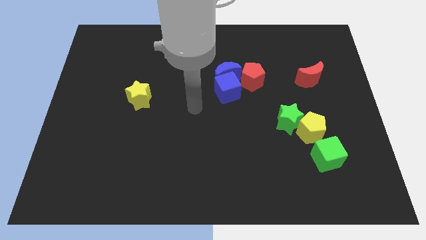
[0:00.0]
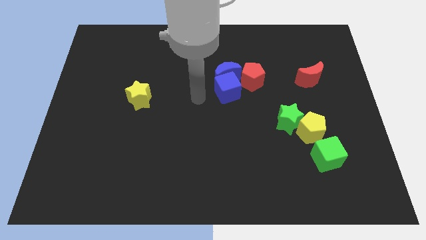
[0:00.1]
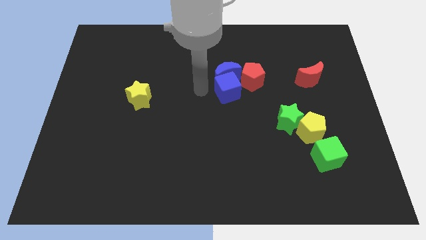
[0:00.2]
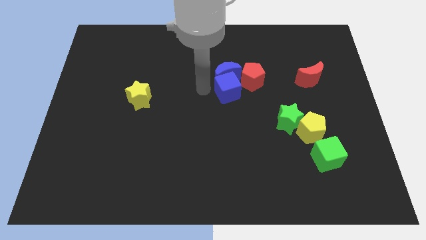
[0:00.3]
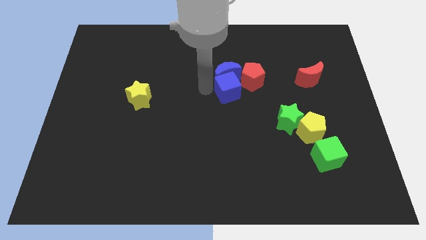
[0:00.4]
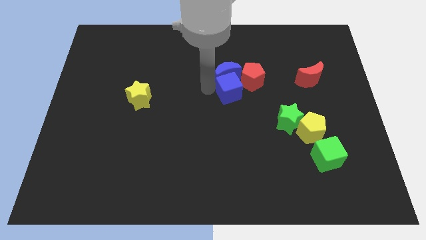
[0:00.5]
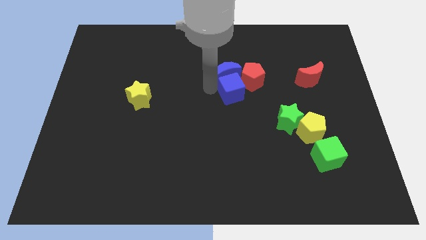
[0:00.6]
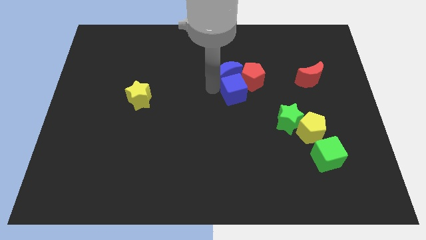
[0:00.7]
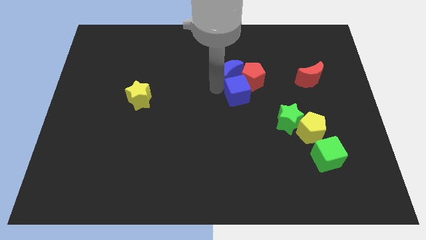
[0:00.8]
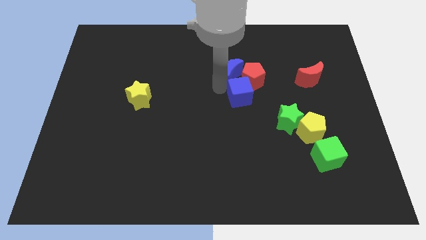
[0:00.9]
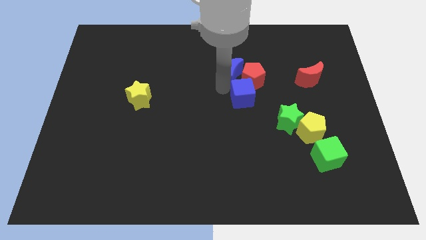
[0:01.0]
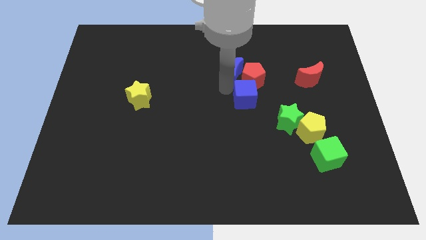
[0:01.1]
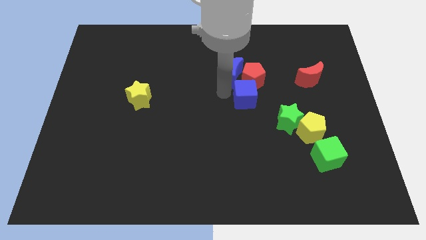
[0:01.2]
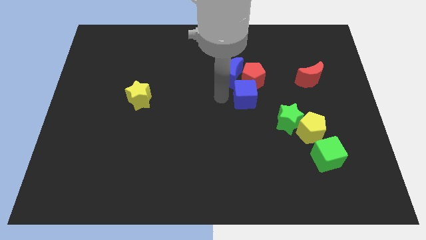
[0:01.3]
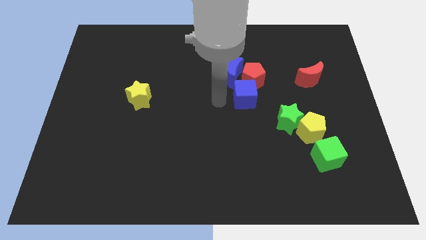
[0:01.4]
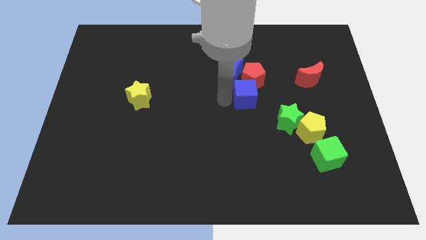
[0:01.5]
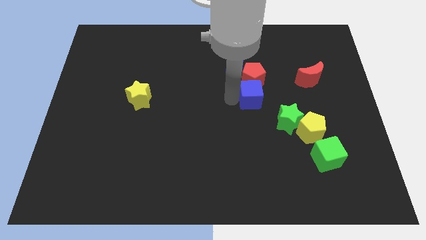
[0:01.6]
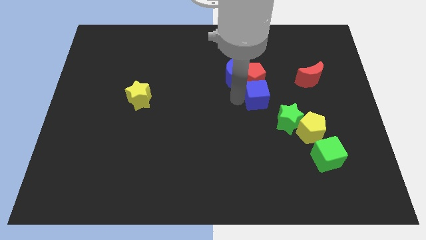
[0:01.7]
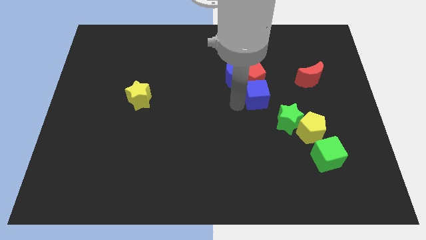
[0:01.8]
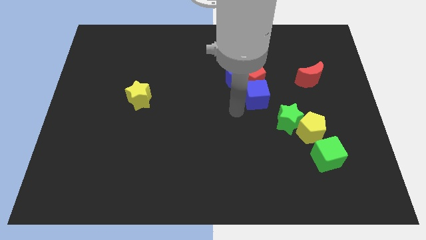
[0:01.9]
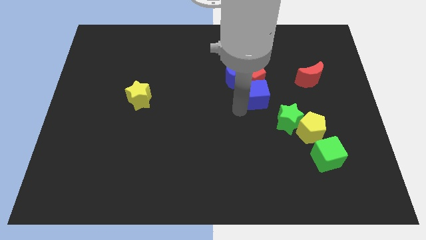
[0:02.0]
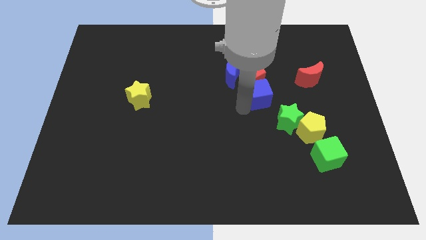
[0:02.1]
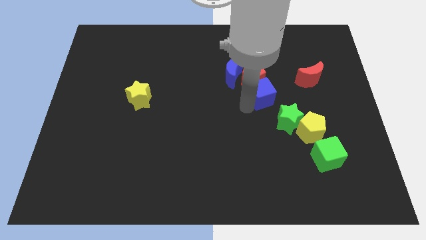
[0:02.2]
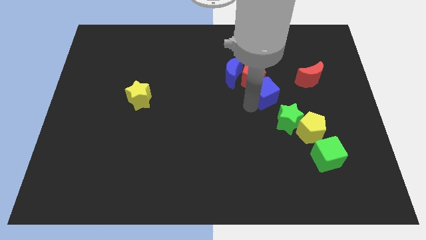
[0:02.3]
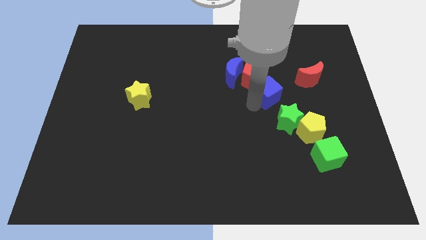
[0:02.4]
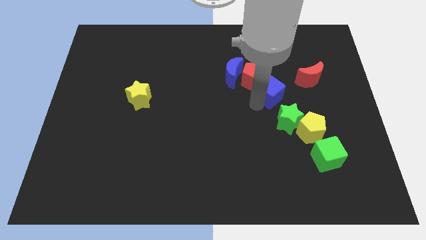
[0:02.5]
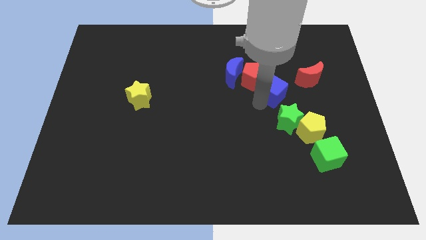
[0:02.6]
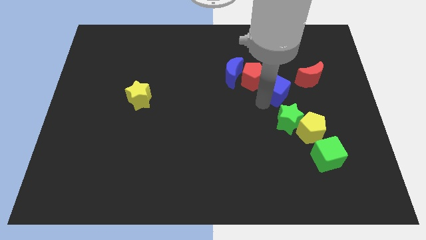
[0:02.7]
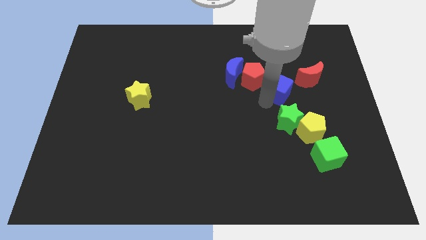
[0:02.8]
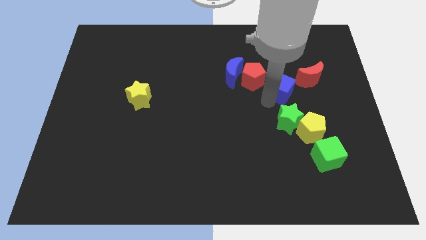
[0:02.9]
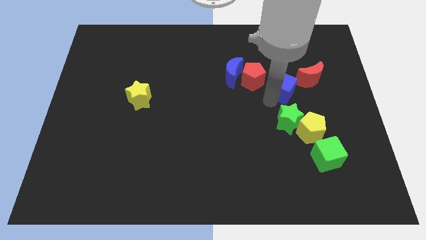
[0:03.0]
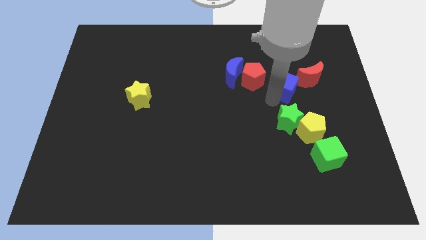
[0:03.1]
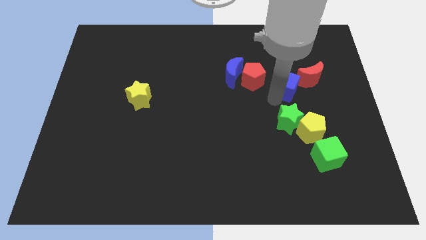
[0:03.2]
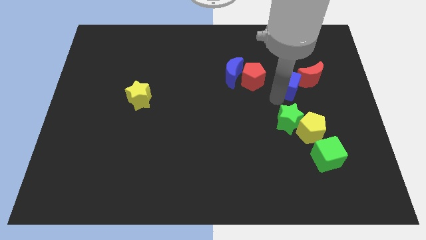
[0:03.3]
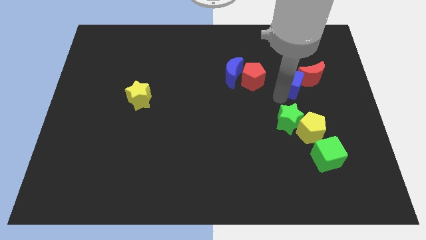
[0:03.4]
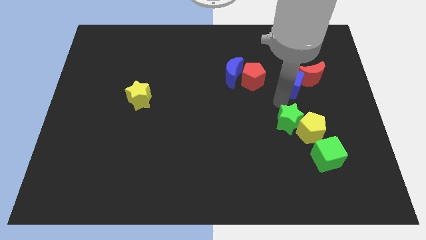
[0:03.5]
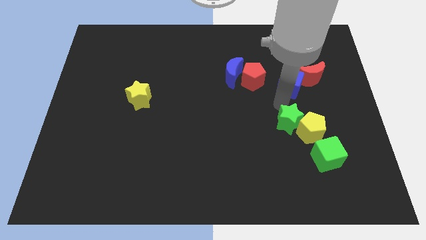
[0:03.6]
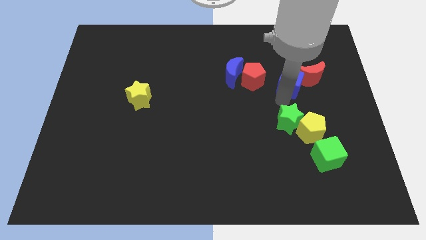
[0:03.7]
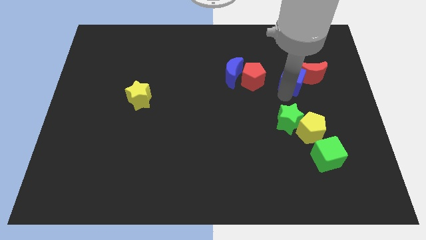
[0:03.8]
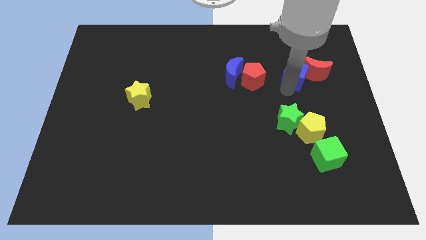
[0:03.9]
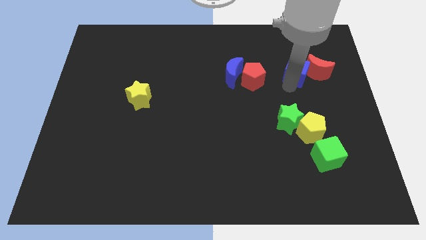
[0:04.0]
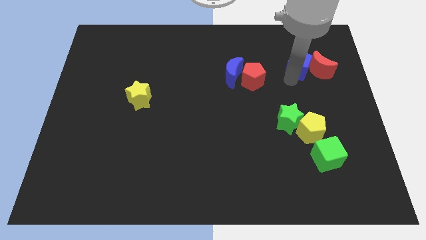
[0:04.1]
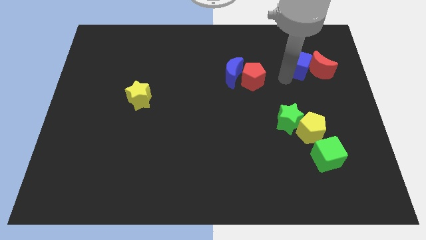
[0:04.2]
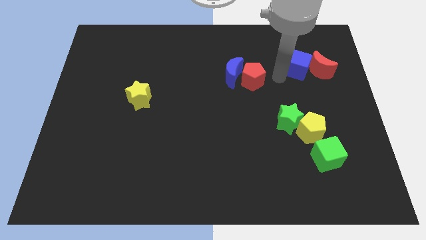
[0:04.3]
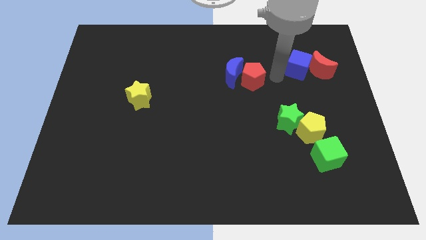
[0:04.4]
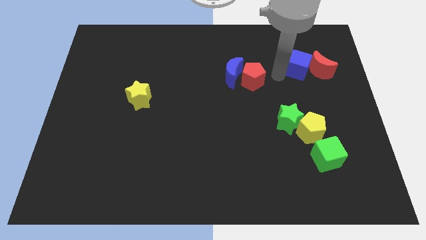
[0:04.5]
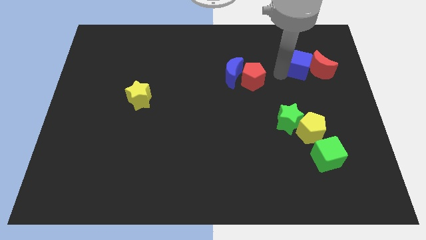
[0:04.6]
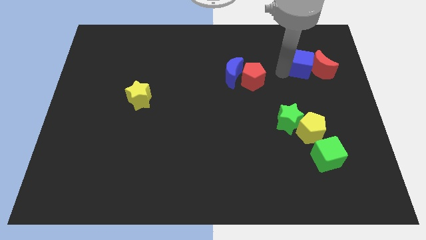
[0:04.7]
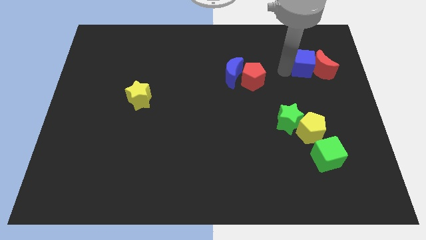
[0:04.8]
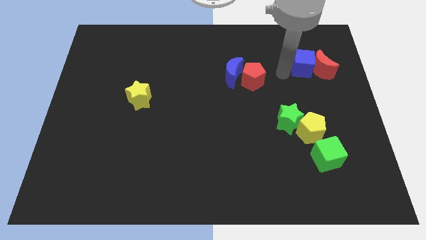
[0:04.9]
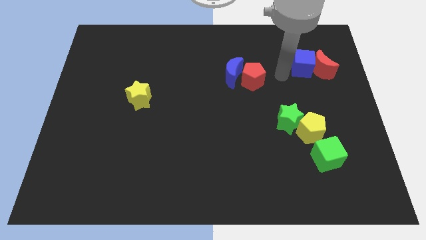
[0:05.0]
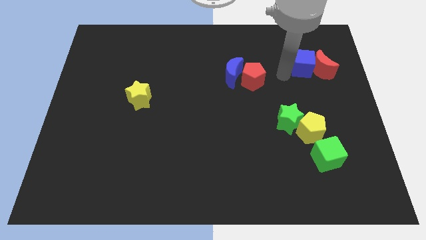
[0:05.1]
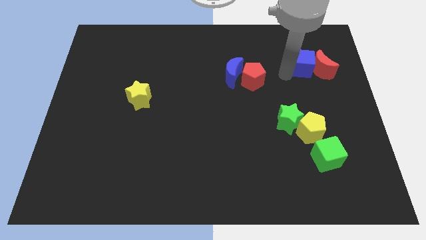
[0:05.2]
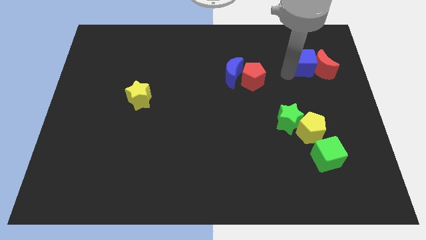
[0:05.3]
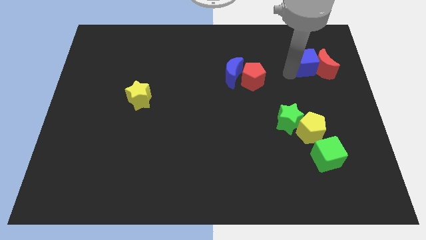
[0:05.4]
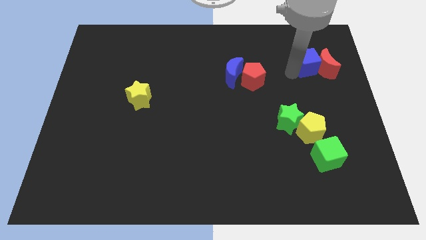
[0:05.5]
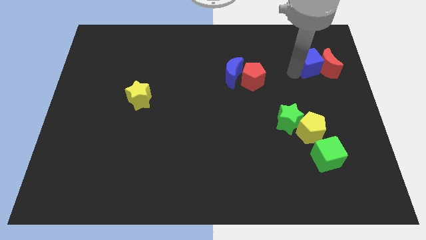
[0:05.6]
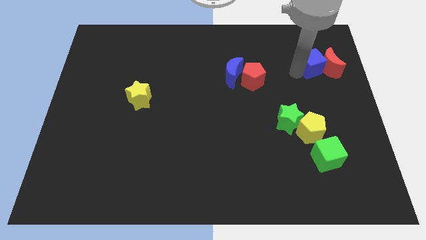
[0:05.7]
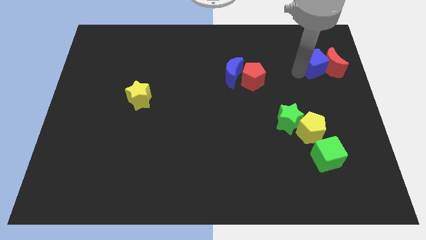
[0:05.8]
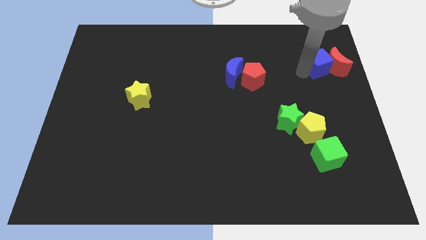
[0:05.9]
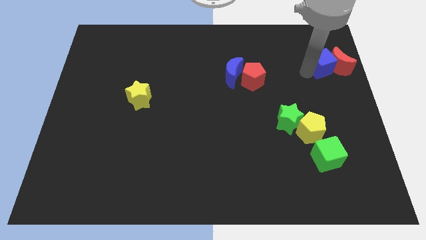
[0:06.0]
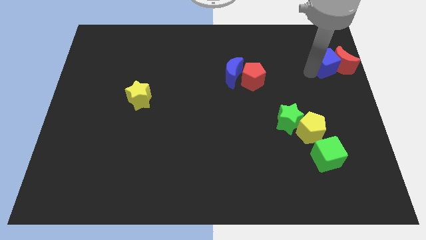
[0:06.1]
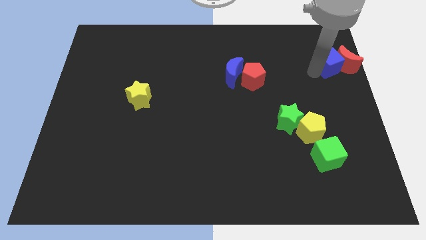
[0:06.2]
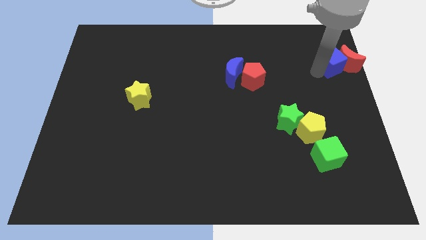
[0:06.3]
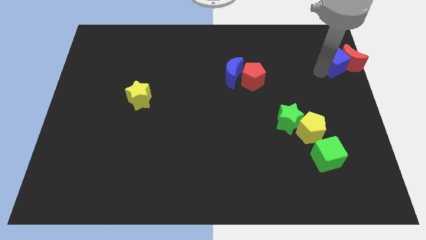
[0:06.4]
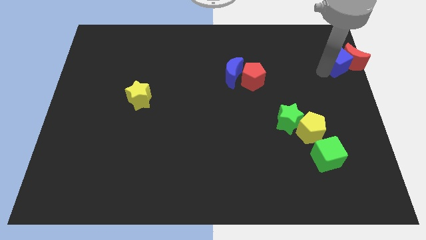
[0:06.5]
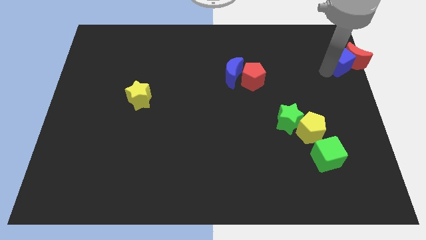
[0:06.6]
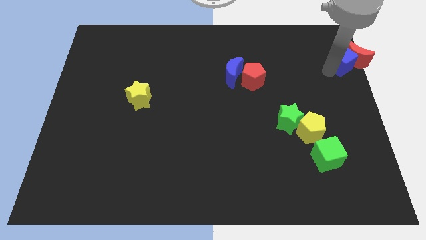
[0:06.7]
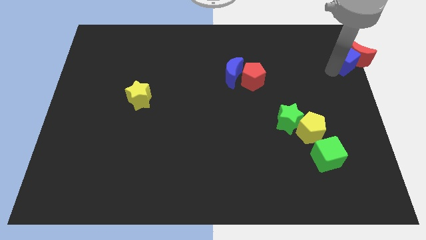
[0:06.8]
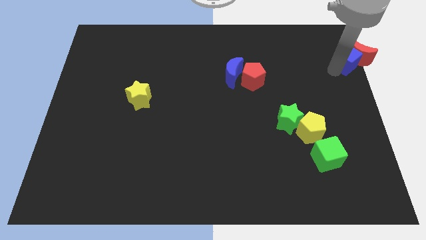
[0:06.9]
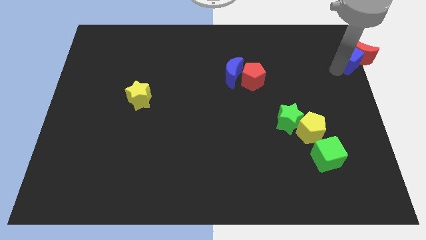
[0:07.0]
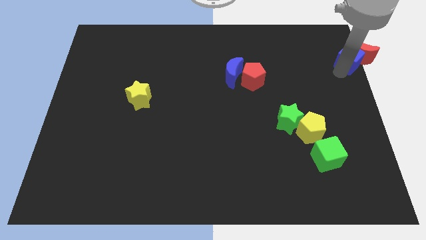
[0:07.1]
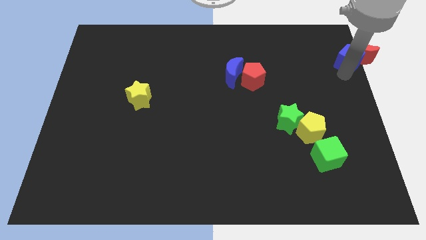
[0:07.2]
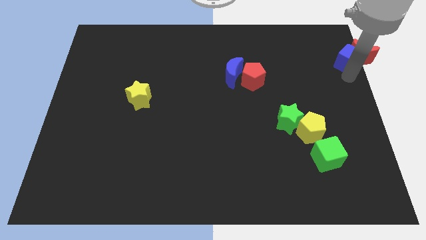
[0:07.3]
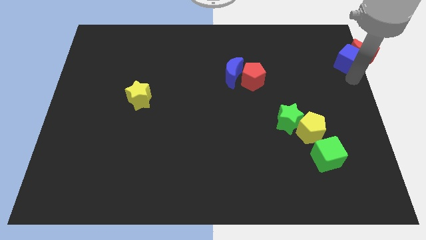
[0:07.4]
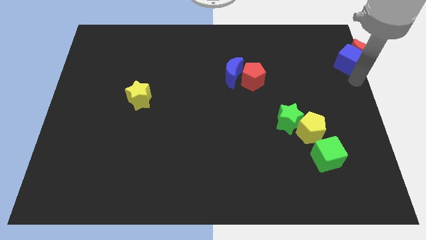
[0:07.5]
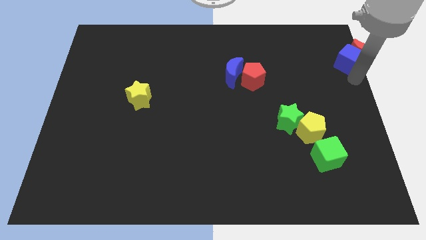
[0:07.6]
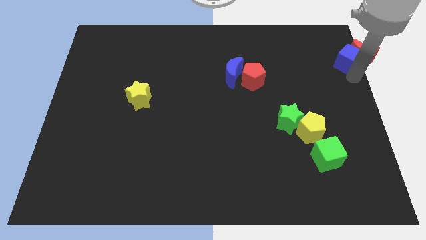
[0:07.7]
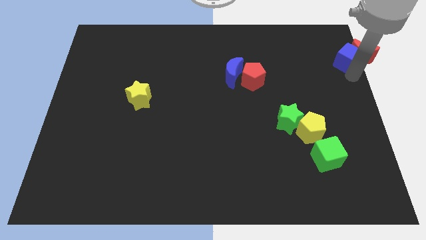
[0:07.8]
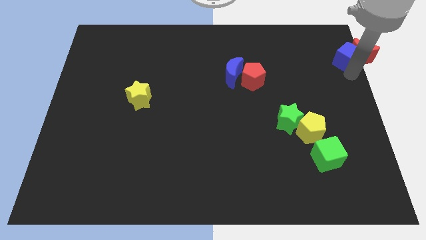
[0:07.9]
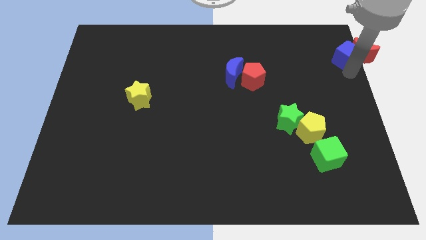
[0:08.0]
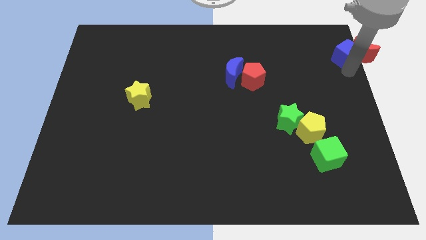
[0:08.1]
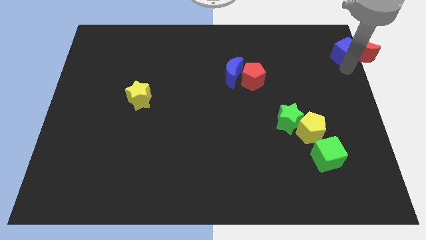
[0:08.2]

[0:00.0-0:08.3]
slide the blue cube to the top right
